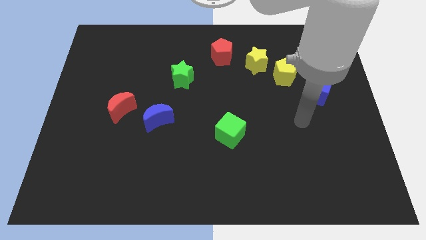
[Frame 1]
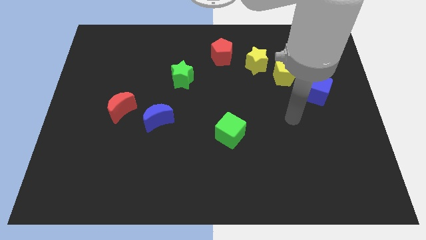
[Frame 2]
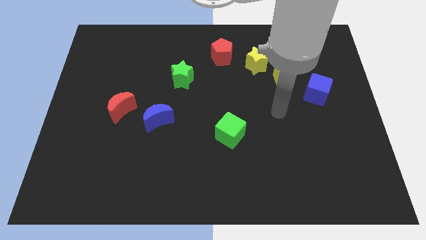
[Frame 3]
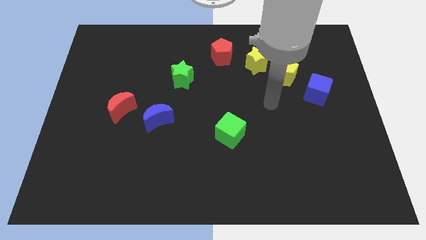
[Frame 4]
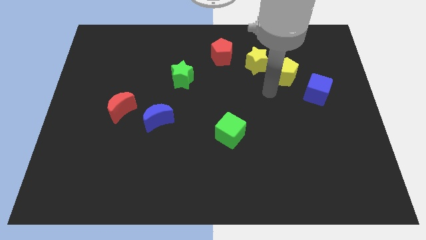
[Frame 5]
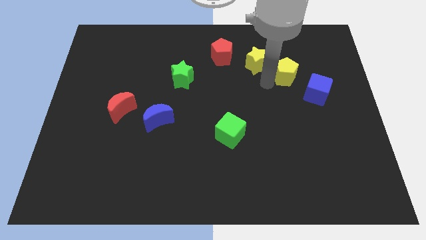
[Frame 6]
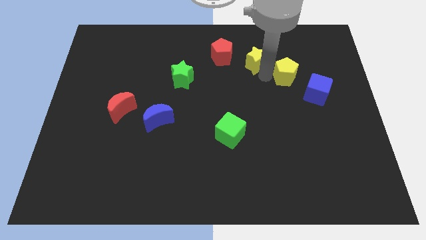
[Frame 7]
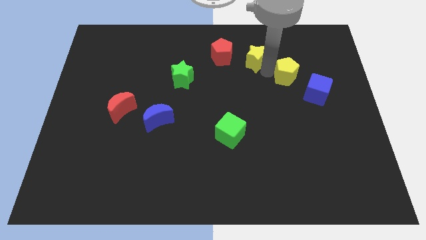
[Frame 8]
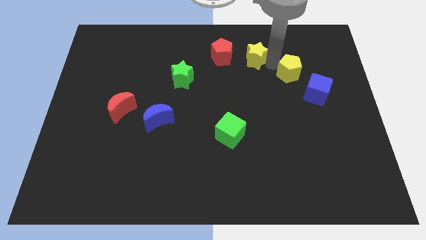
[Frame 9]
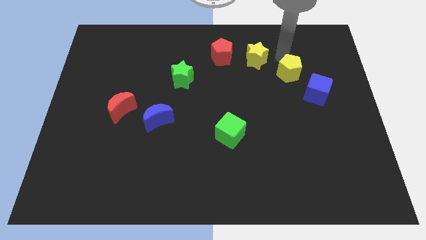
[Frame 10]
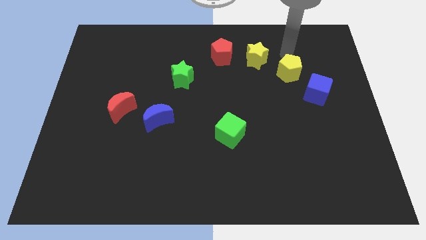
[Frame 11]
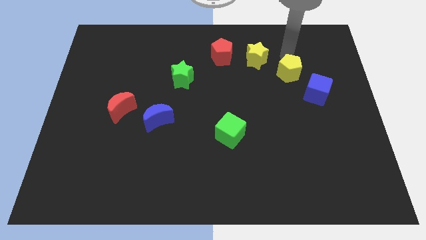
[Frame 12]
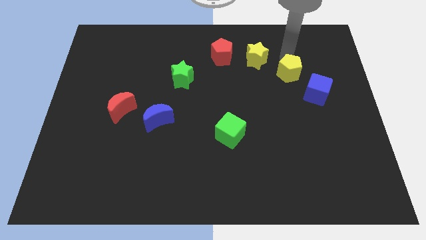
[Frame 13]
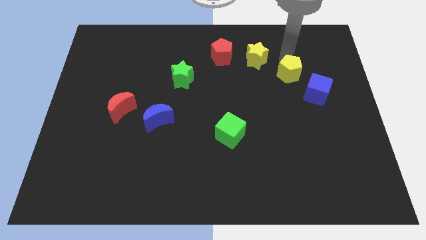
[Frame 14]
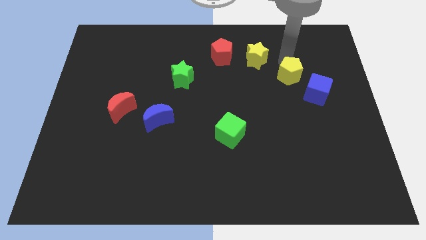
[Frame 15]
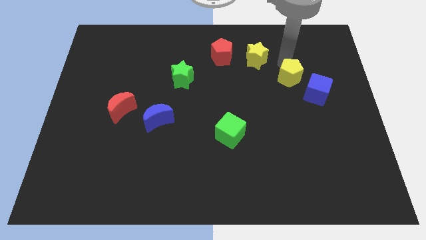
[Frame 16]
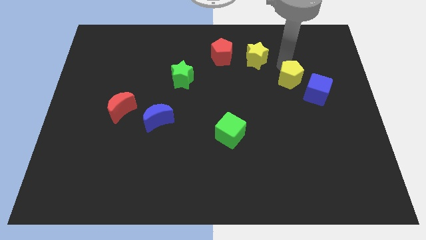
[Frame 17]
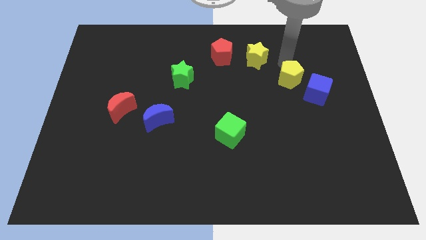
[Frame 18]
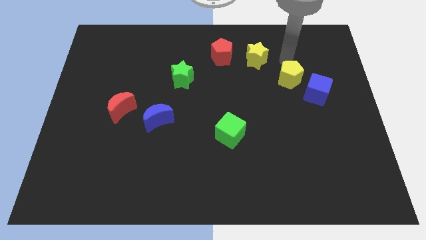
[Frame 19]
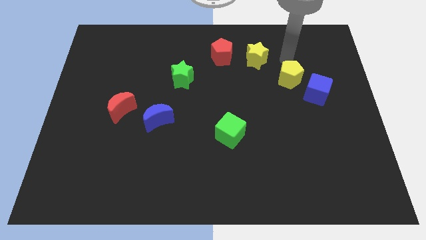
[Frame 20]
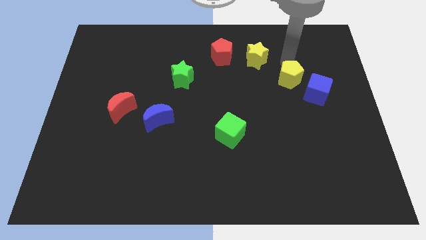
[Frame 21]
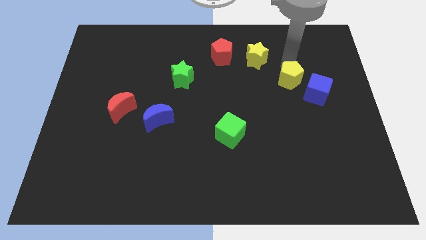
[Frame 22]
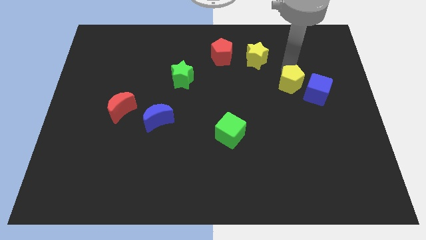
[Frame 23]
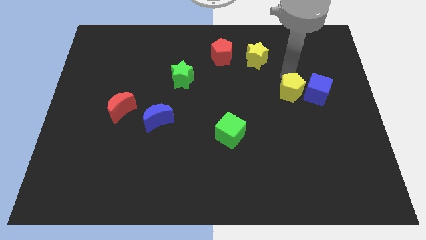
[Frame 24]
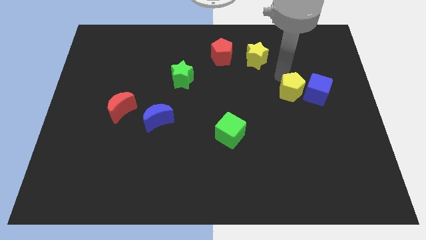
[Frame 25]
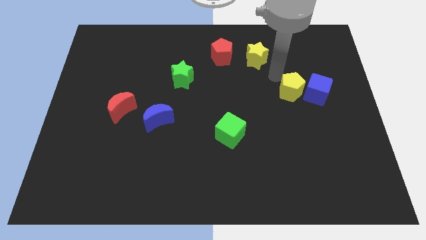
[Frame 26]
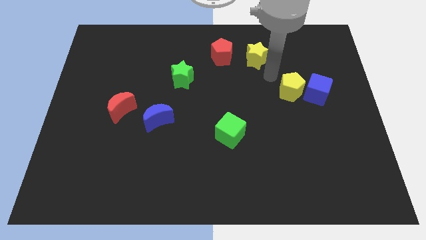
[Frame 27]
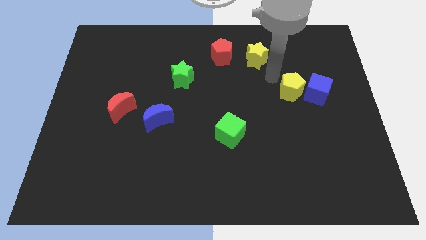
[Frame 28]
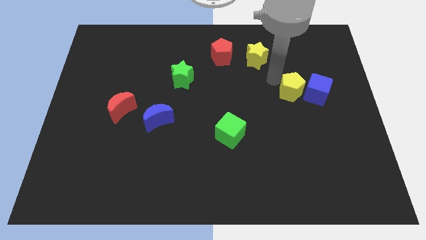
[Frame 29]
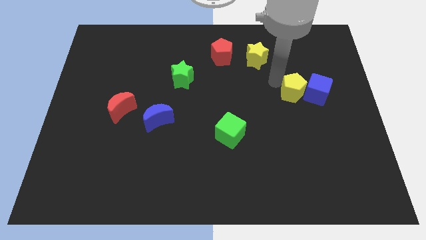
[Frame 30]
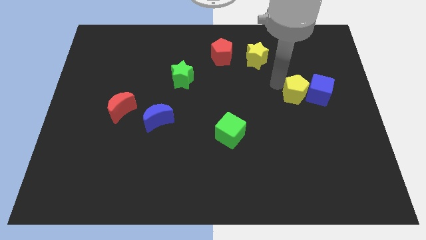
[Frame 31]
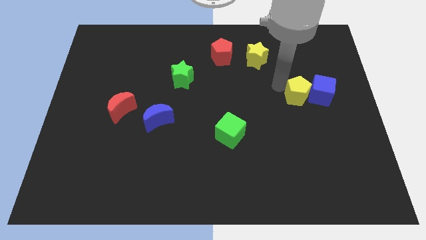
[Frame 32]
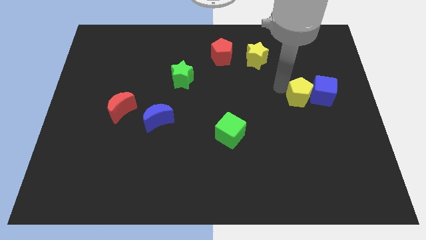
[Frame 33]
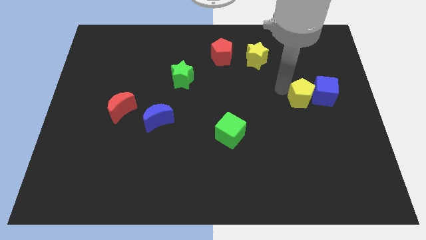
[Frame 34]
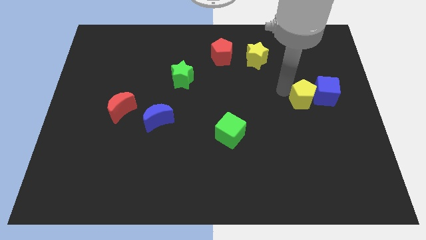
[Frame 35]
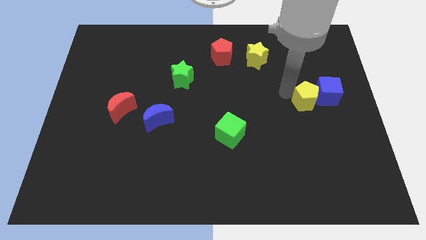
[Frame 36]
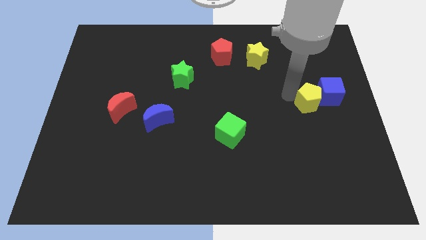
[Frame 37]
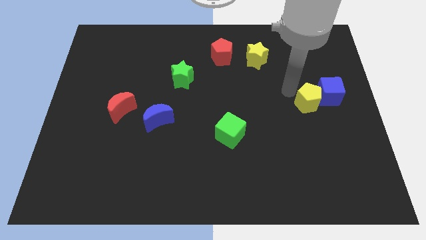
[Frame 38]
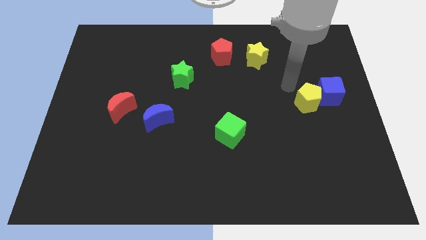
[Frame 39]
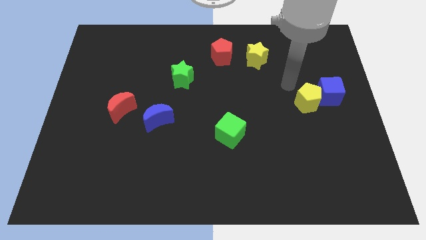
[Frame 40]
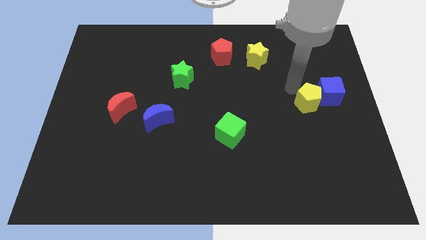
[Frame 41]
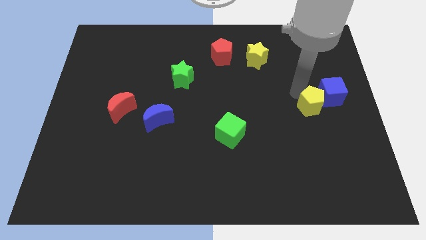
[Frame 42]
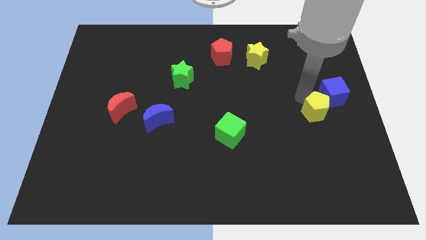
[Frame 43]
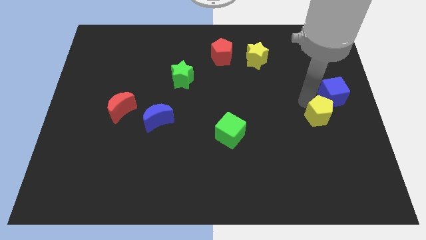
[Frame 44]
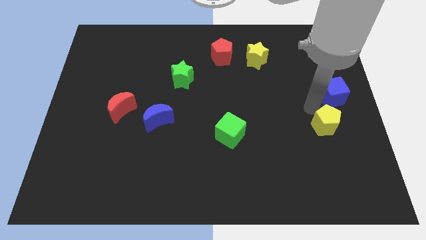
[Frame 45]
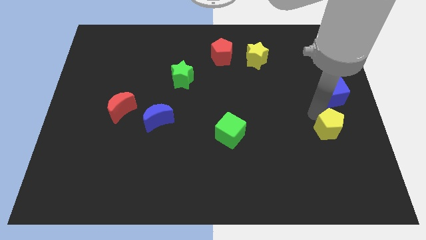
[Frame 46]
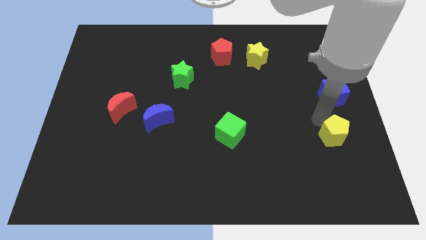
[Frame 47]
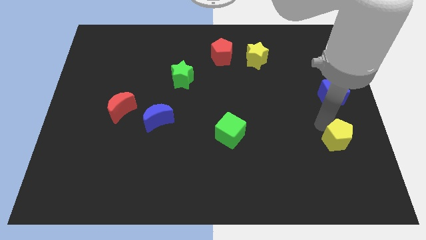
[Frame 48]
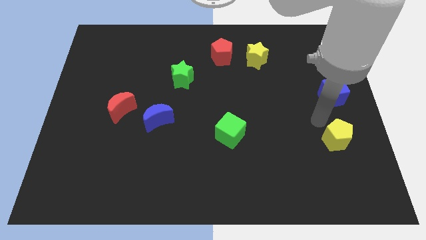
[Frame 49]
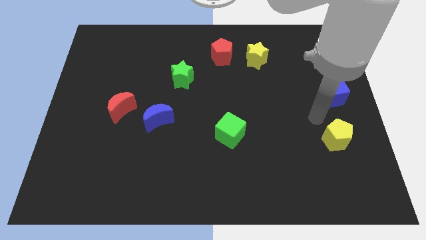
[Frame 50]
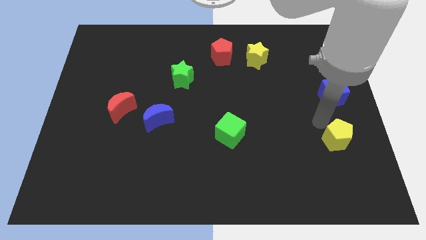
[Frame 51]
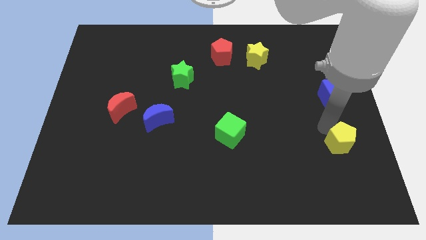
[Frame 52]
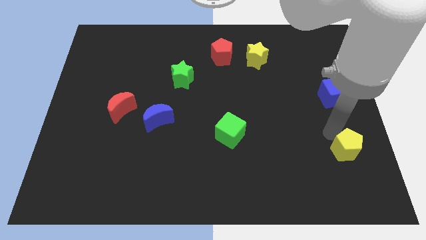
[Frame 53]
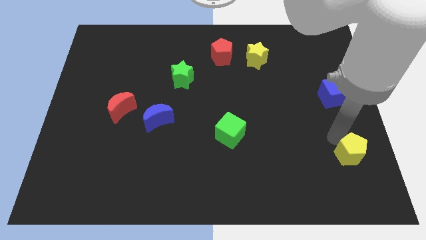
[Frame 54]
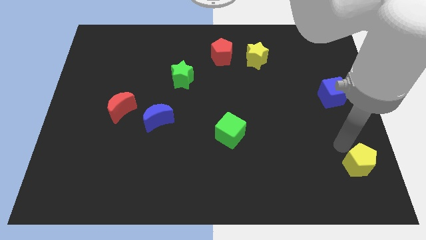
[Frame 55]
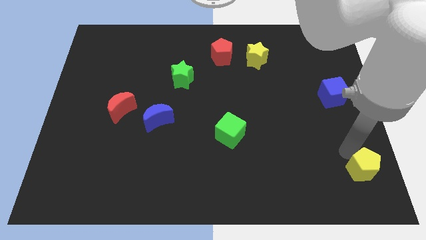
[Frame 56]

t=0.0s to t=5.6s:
push the yellow pentagon to the lower right corner

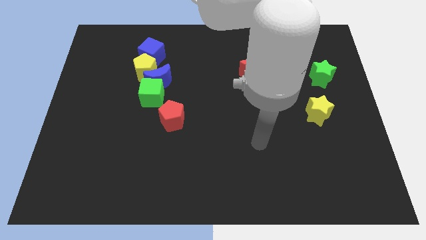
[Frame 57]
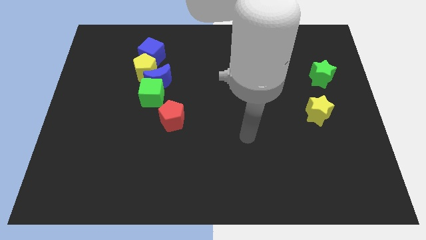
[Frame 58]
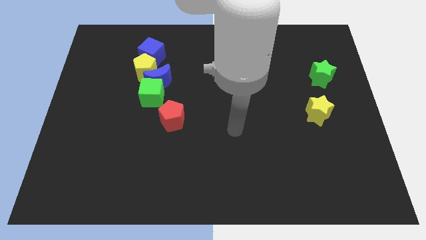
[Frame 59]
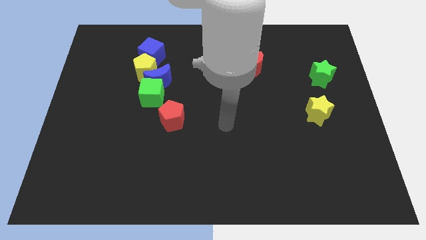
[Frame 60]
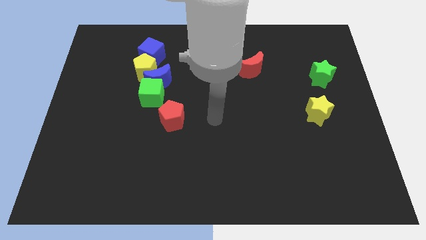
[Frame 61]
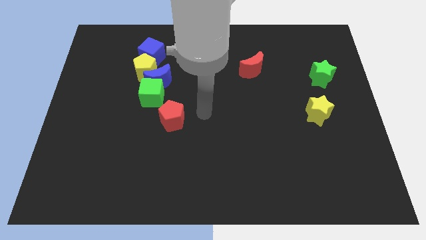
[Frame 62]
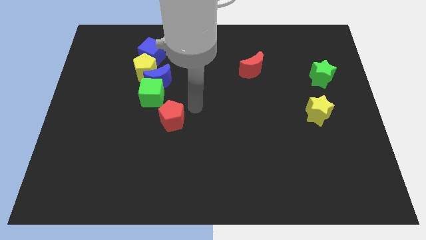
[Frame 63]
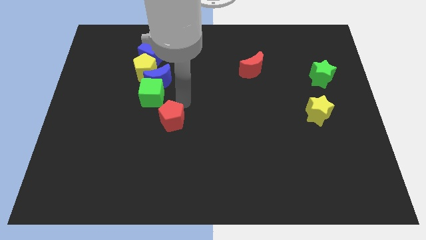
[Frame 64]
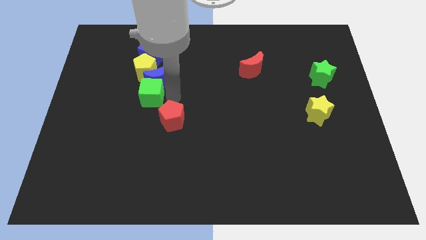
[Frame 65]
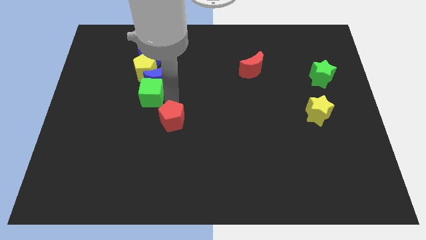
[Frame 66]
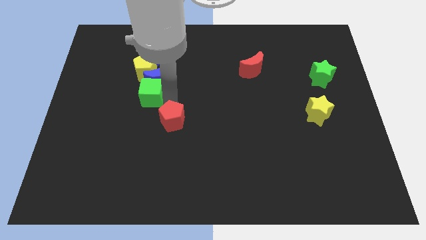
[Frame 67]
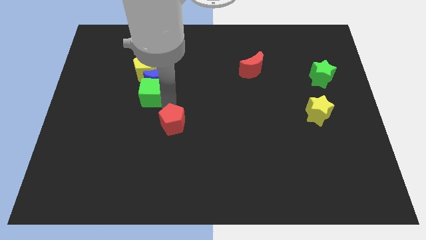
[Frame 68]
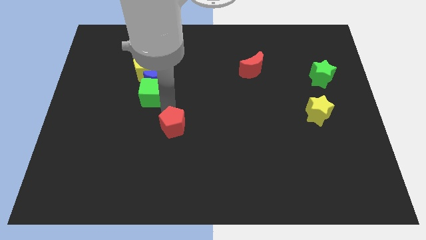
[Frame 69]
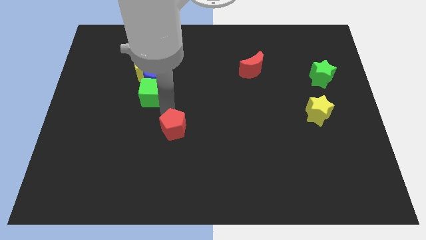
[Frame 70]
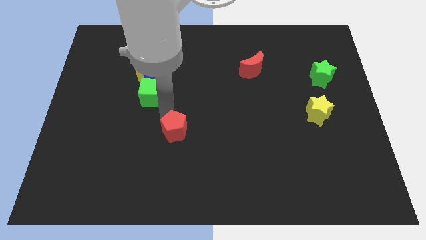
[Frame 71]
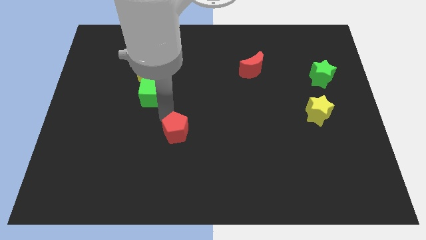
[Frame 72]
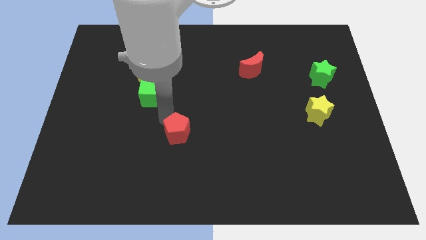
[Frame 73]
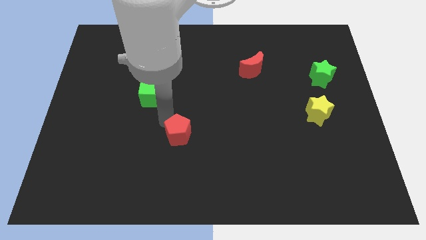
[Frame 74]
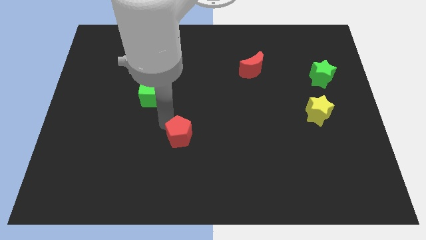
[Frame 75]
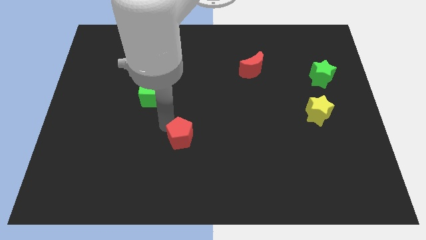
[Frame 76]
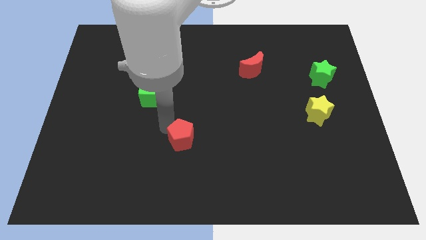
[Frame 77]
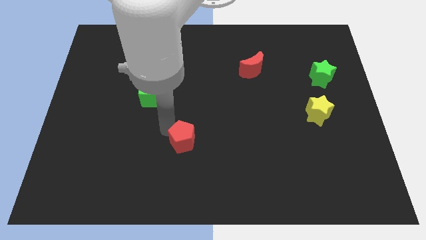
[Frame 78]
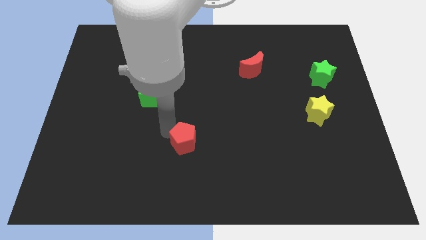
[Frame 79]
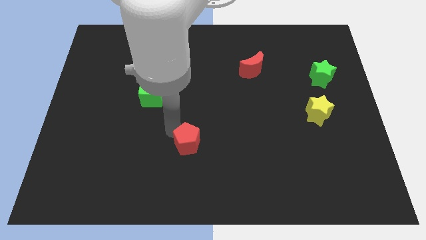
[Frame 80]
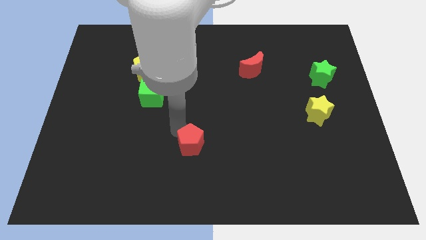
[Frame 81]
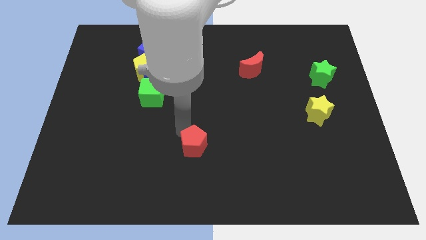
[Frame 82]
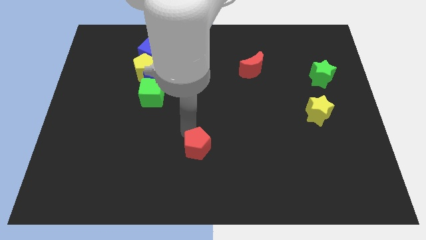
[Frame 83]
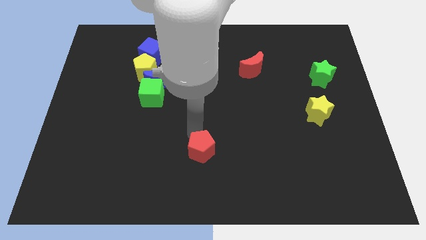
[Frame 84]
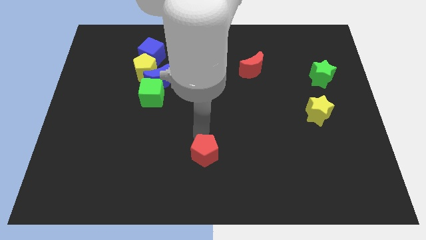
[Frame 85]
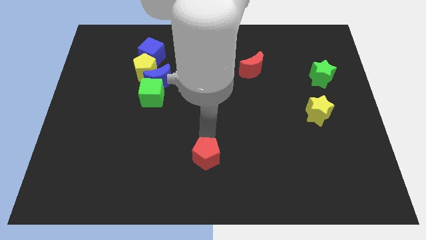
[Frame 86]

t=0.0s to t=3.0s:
move the red pentagon to the bottom side
